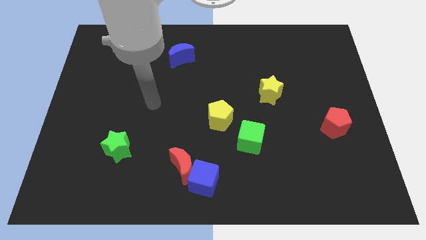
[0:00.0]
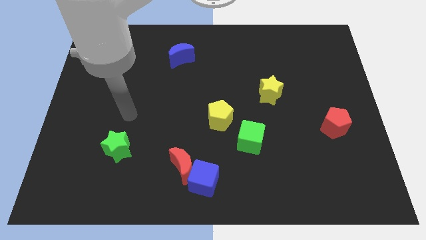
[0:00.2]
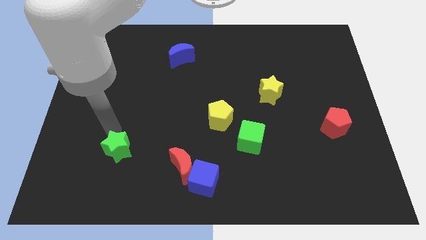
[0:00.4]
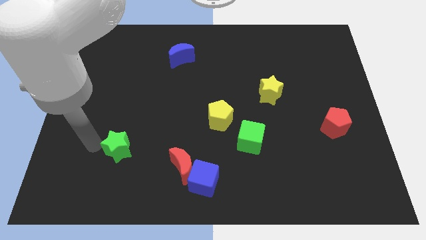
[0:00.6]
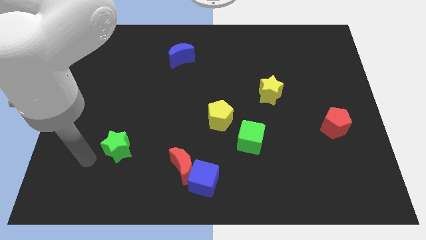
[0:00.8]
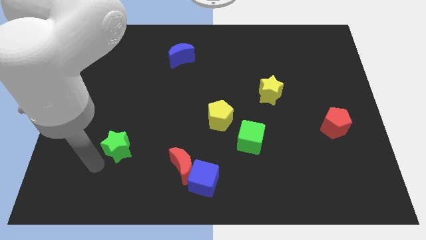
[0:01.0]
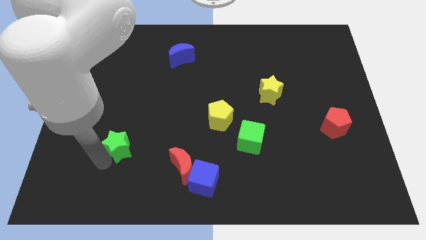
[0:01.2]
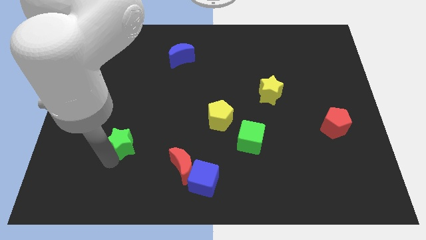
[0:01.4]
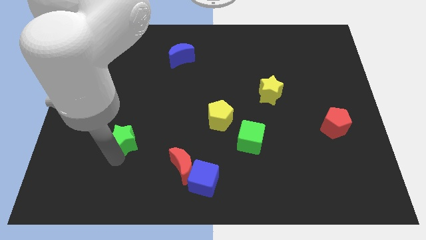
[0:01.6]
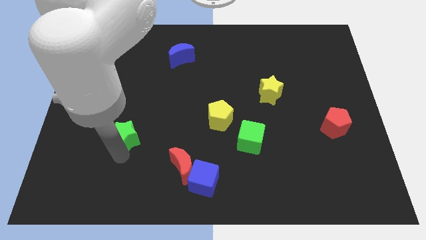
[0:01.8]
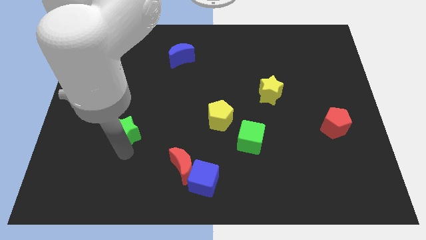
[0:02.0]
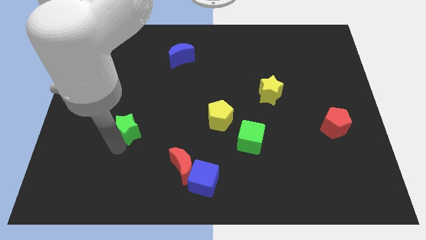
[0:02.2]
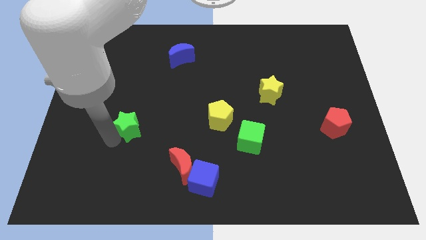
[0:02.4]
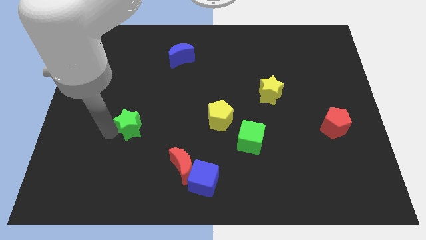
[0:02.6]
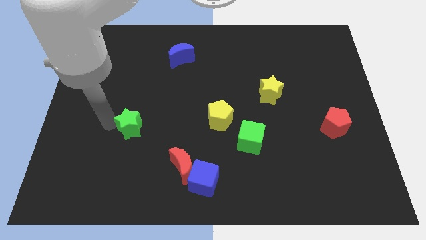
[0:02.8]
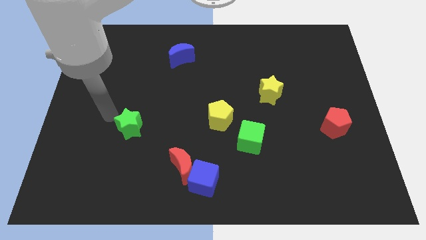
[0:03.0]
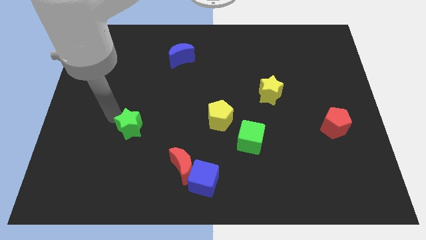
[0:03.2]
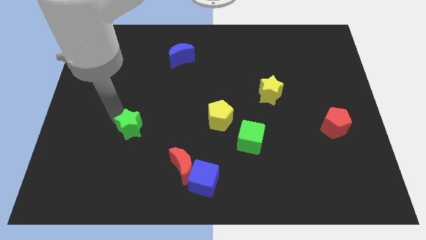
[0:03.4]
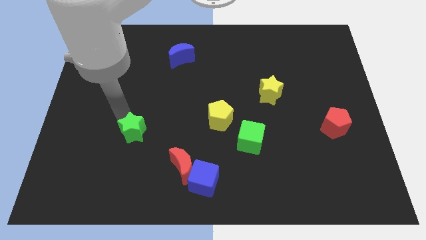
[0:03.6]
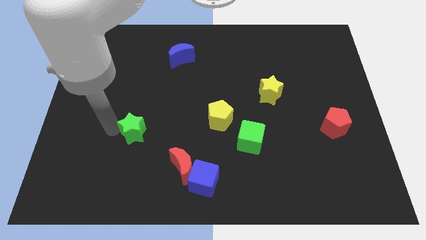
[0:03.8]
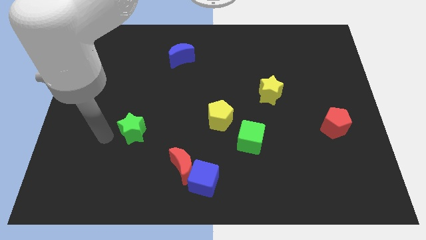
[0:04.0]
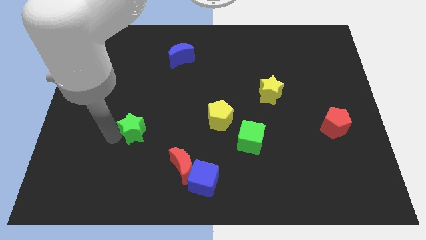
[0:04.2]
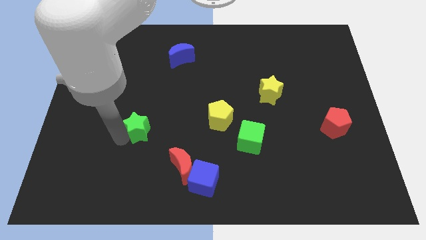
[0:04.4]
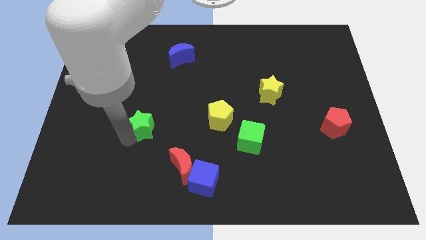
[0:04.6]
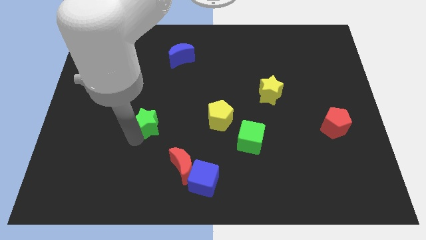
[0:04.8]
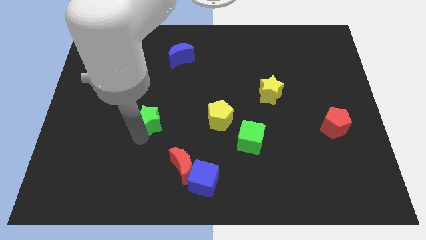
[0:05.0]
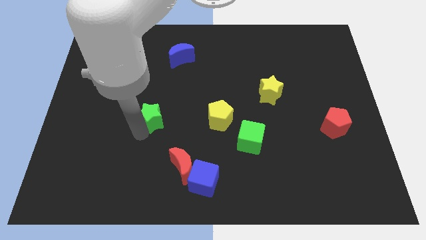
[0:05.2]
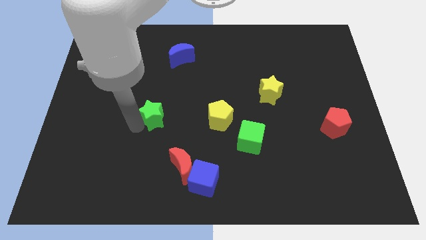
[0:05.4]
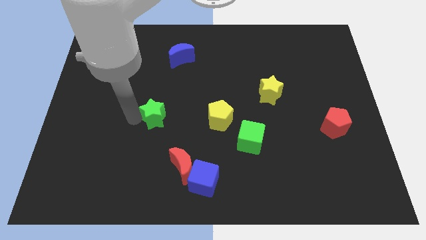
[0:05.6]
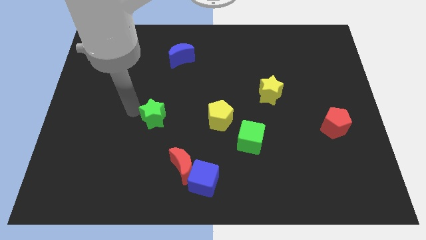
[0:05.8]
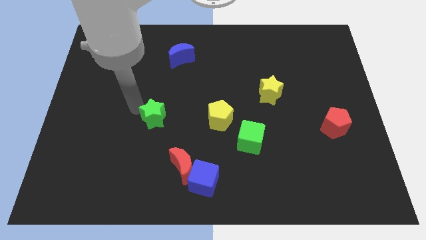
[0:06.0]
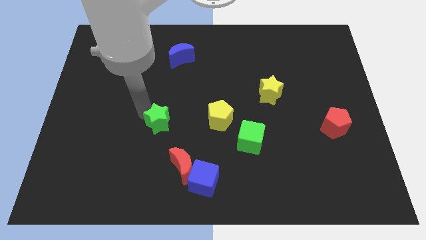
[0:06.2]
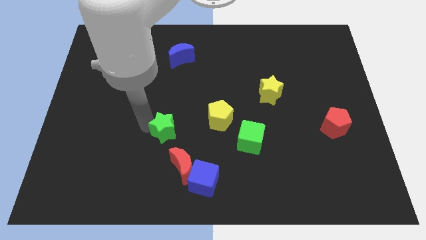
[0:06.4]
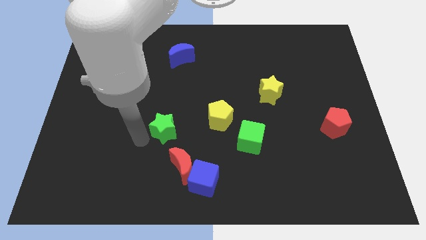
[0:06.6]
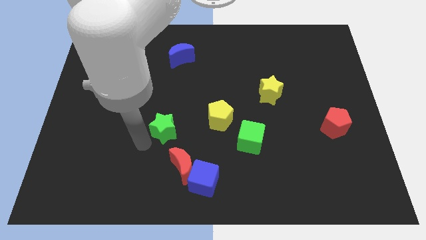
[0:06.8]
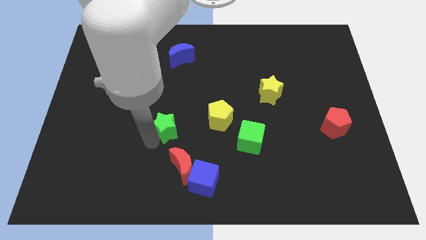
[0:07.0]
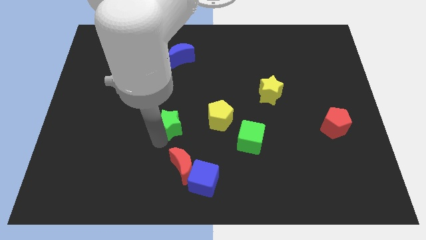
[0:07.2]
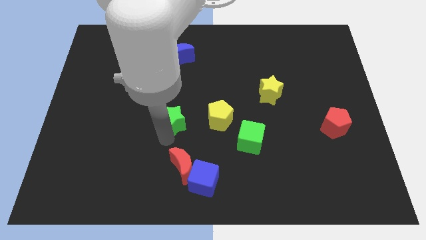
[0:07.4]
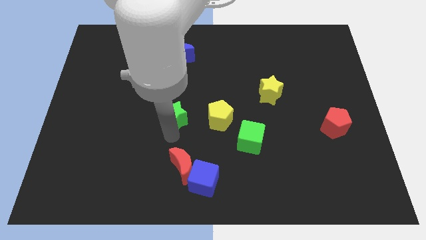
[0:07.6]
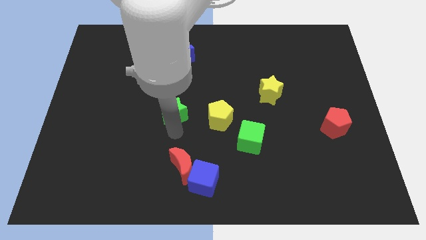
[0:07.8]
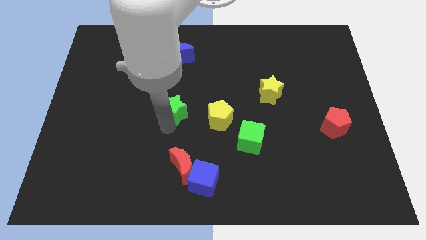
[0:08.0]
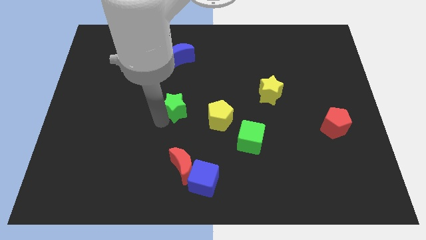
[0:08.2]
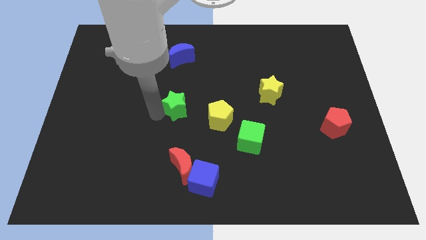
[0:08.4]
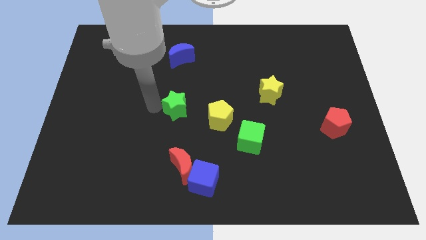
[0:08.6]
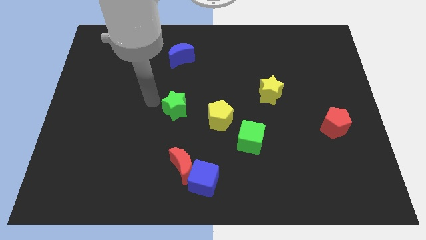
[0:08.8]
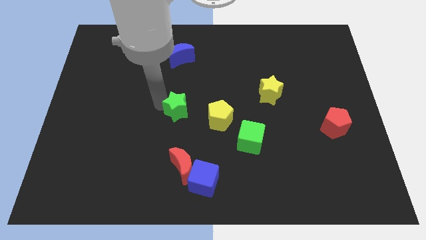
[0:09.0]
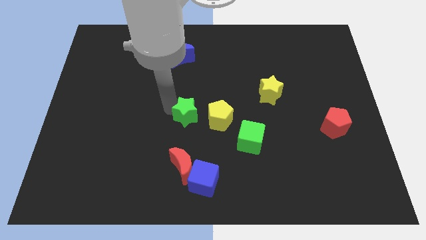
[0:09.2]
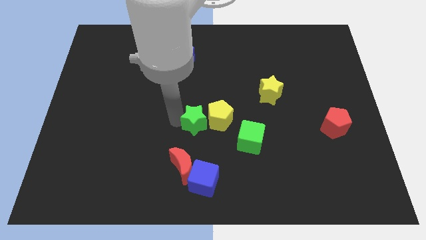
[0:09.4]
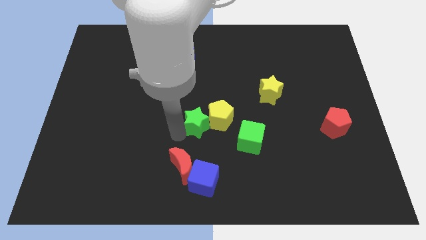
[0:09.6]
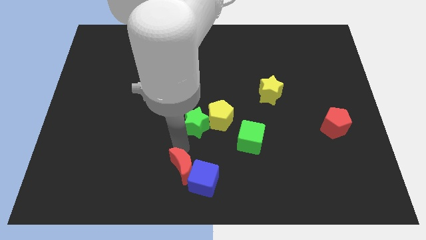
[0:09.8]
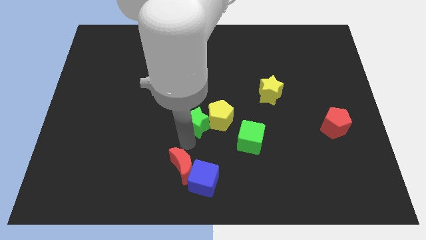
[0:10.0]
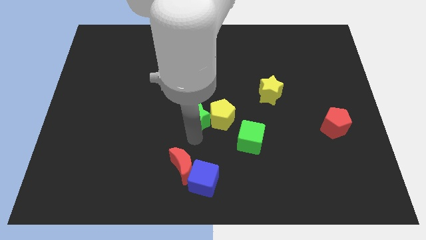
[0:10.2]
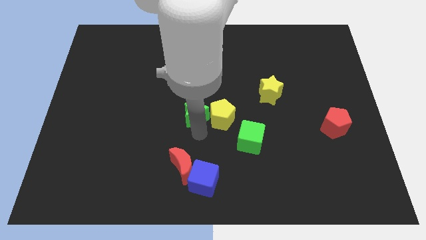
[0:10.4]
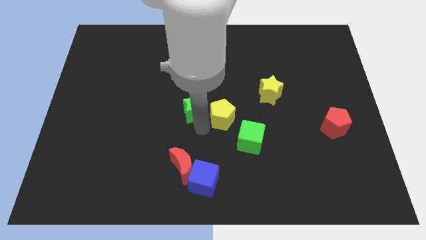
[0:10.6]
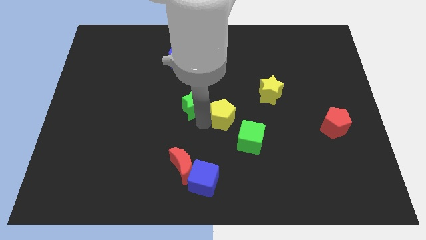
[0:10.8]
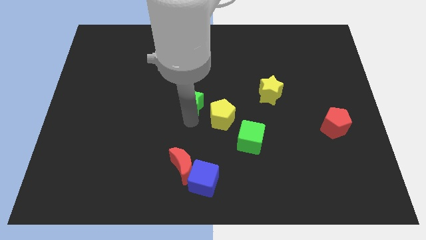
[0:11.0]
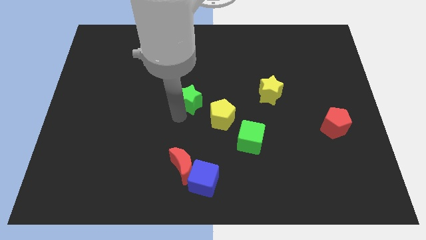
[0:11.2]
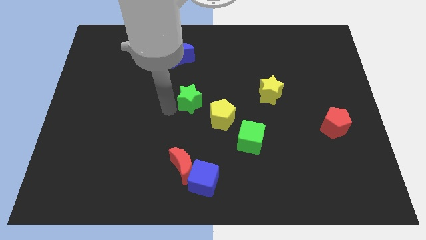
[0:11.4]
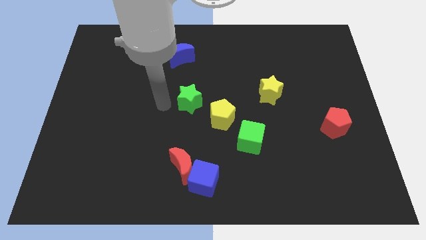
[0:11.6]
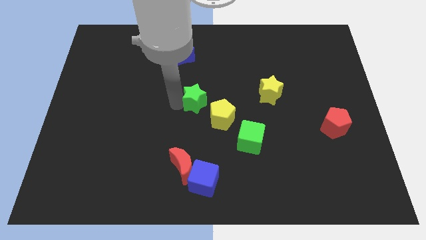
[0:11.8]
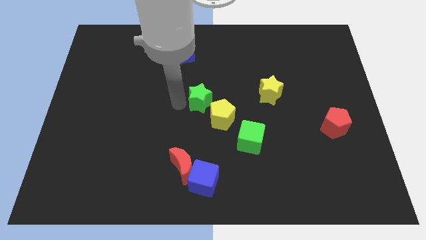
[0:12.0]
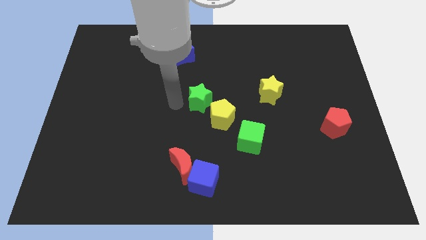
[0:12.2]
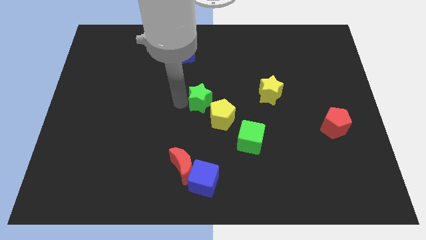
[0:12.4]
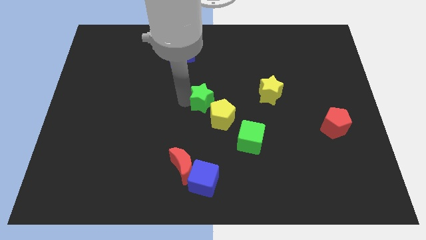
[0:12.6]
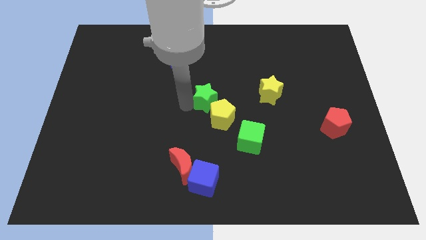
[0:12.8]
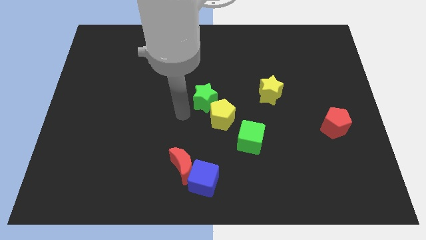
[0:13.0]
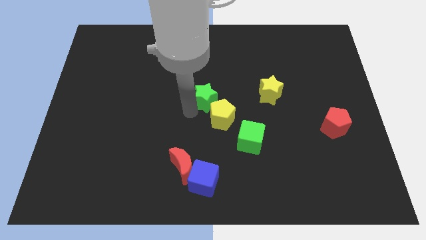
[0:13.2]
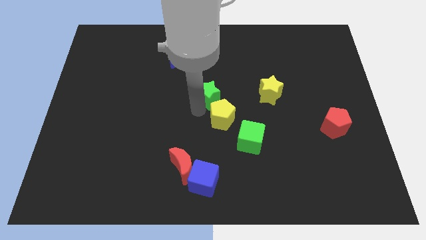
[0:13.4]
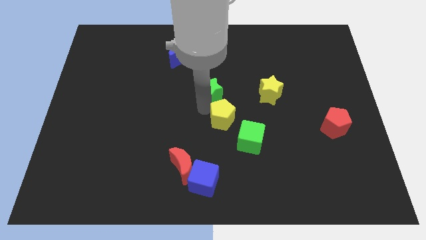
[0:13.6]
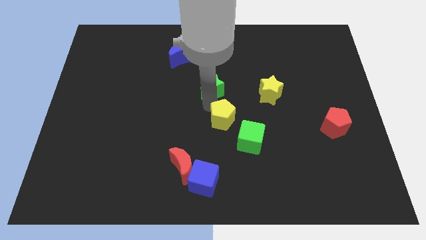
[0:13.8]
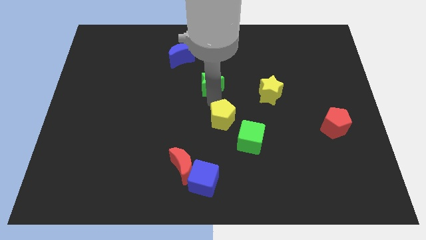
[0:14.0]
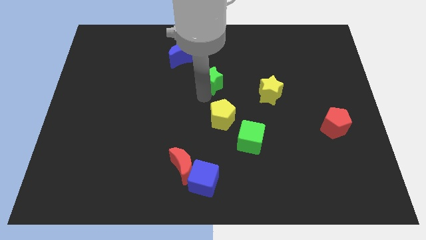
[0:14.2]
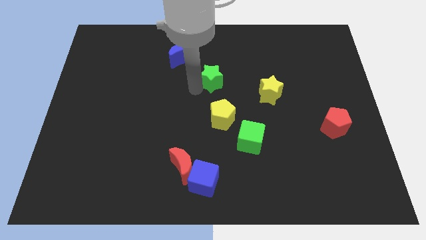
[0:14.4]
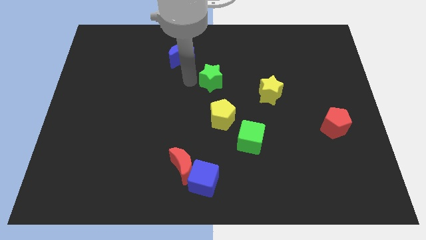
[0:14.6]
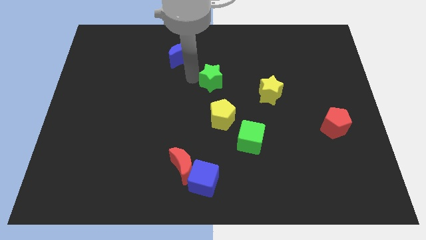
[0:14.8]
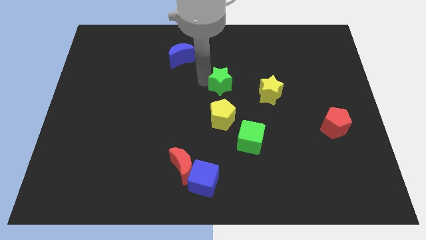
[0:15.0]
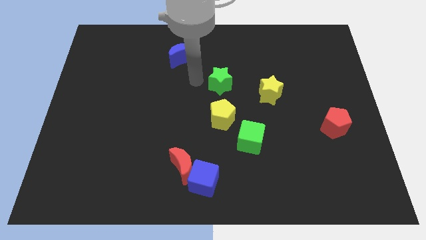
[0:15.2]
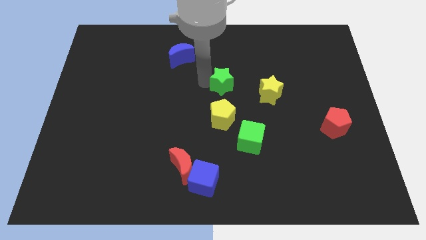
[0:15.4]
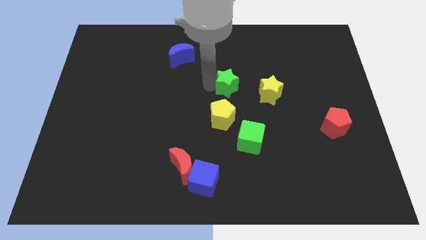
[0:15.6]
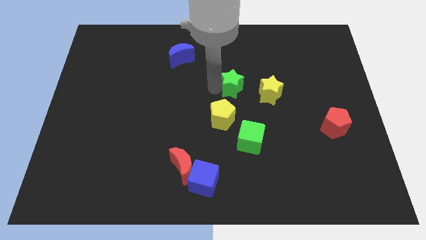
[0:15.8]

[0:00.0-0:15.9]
slide the green star to the top left of the yellow star
